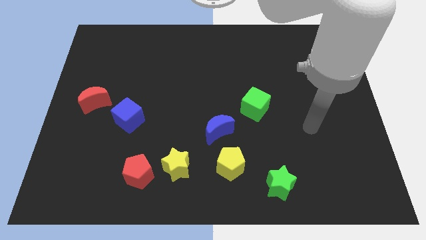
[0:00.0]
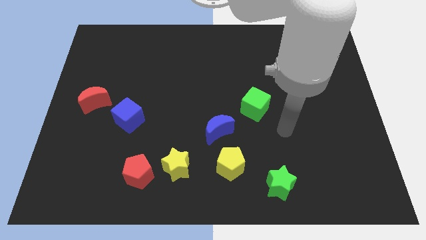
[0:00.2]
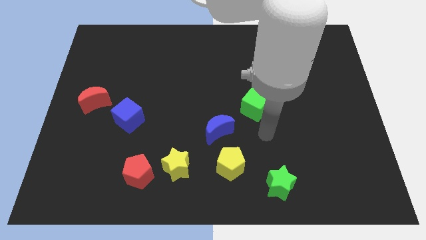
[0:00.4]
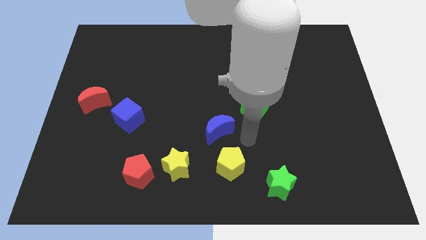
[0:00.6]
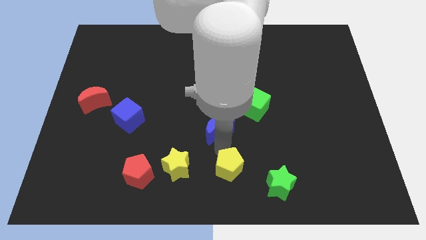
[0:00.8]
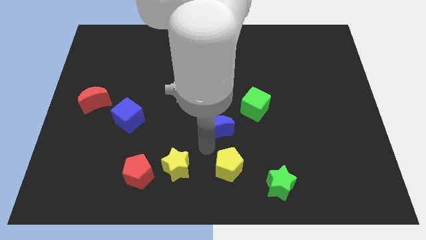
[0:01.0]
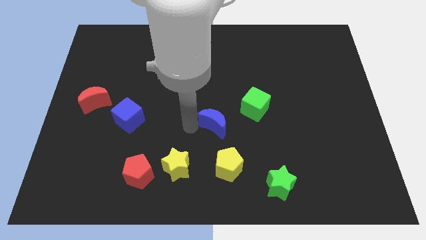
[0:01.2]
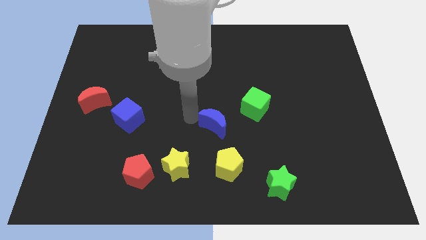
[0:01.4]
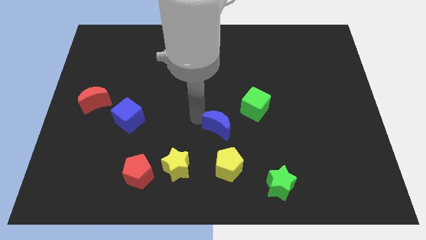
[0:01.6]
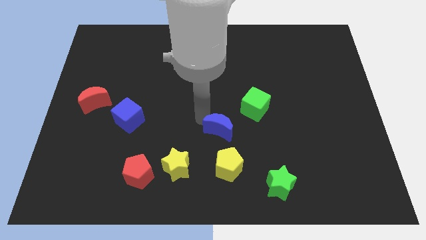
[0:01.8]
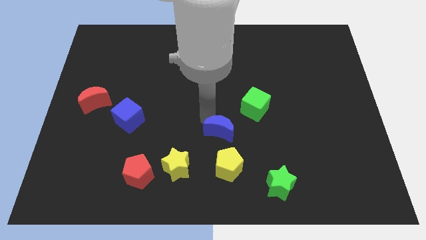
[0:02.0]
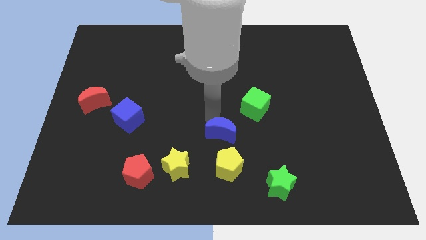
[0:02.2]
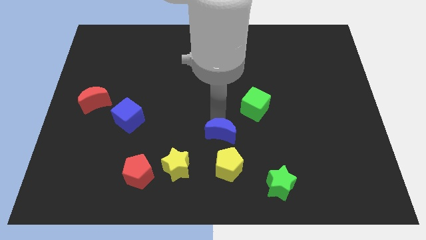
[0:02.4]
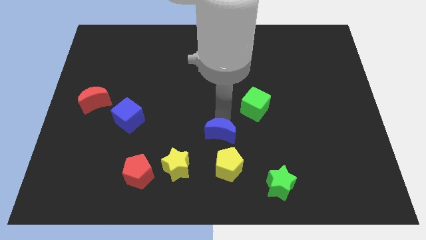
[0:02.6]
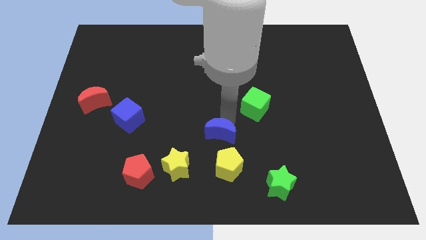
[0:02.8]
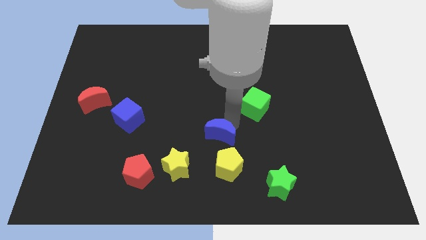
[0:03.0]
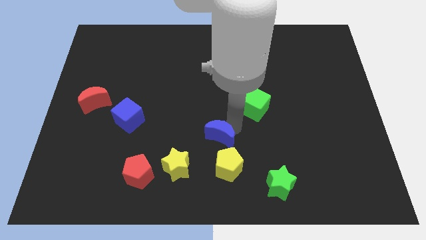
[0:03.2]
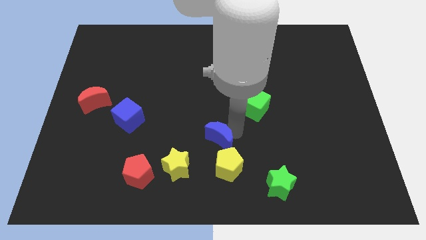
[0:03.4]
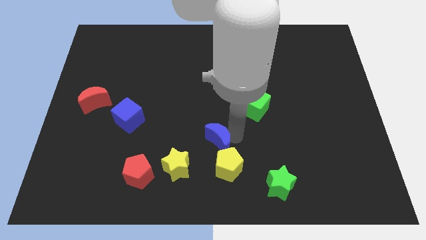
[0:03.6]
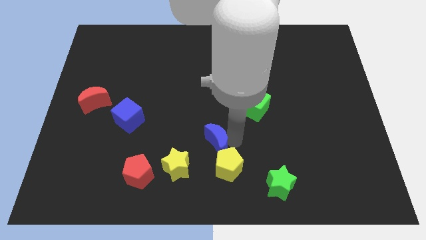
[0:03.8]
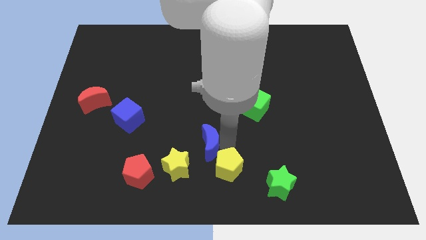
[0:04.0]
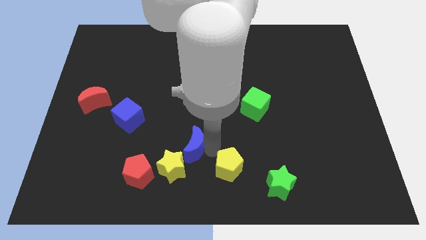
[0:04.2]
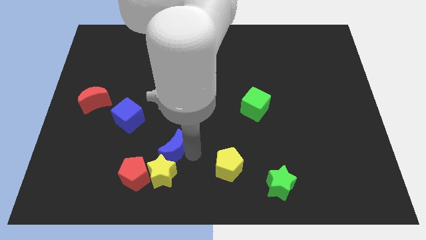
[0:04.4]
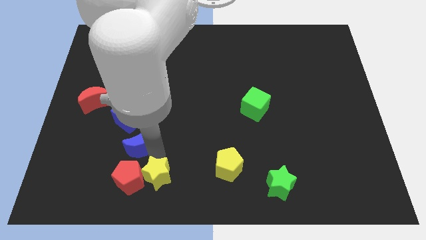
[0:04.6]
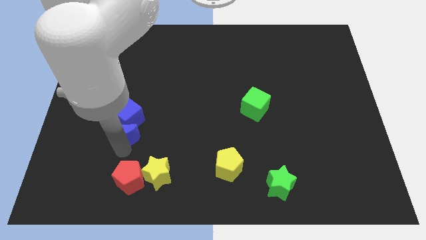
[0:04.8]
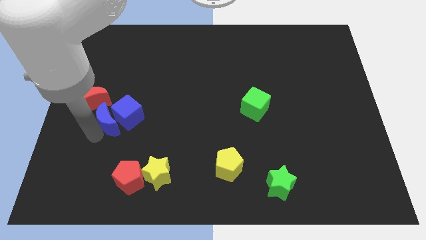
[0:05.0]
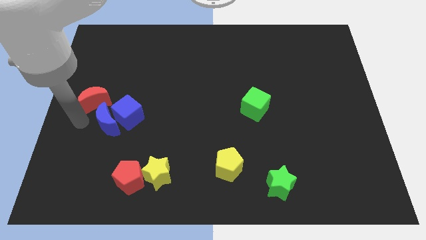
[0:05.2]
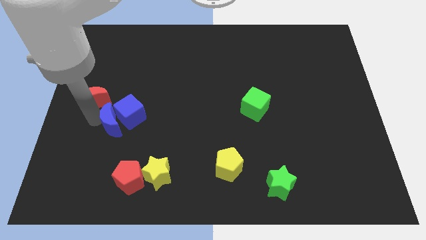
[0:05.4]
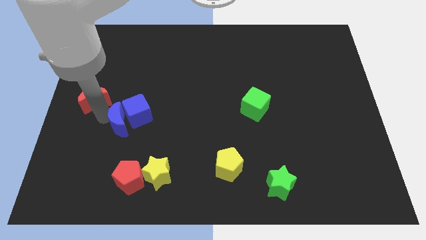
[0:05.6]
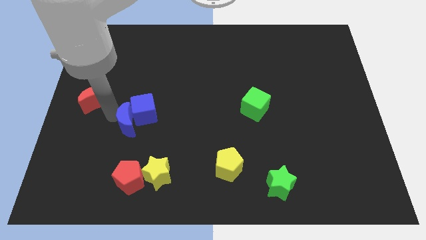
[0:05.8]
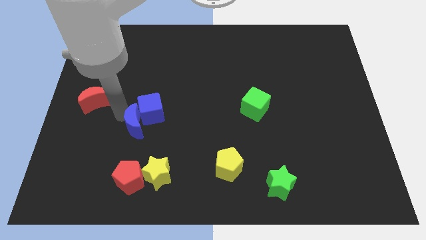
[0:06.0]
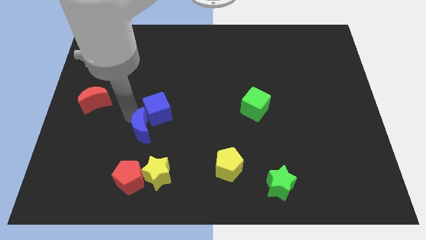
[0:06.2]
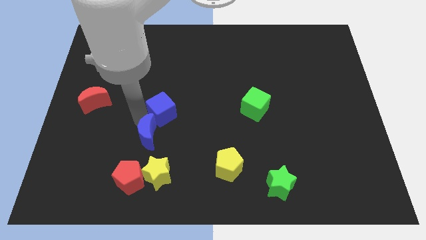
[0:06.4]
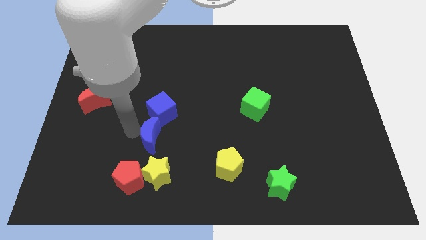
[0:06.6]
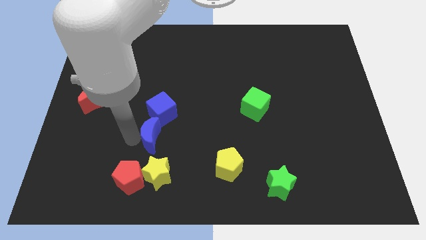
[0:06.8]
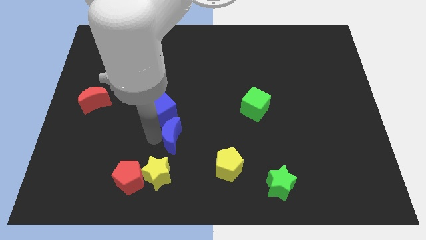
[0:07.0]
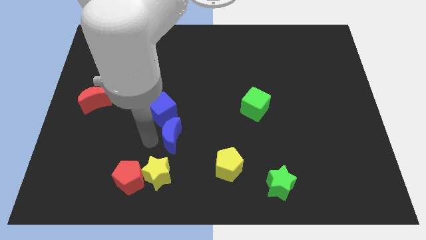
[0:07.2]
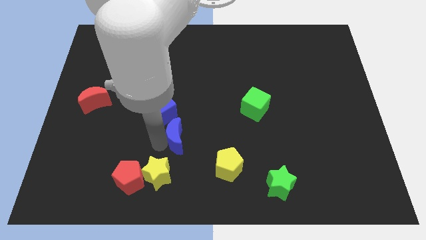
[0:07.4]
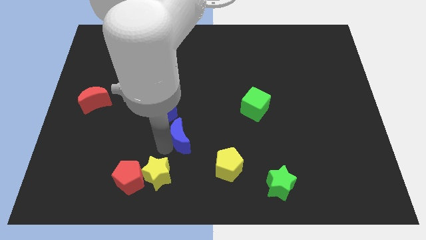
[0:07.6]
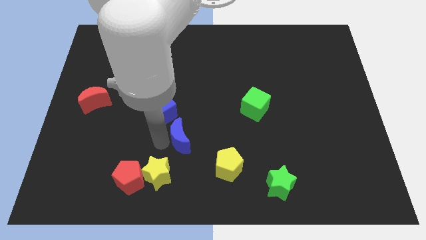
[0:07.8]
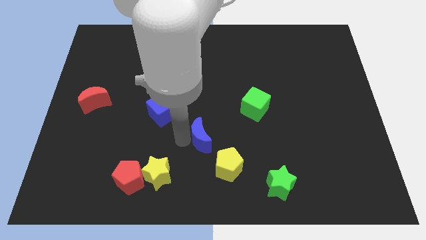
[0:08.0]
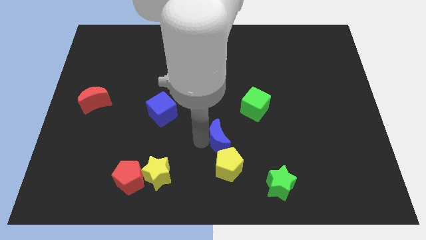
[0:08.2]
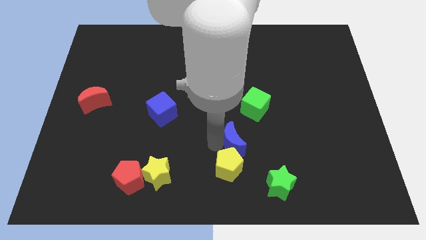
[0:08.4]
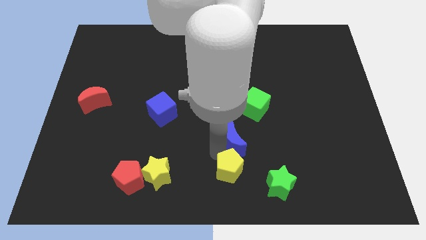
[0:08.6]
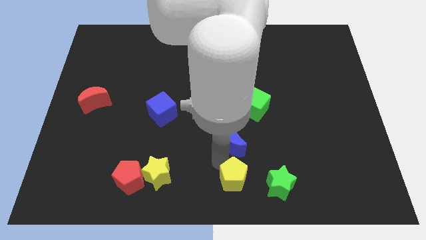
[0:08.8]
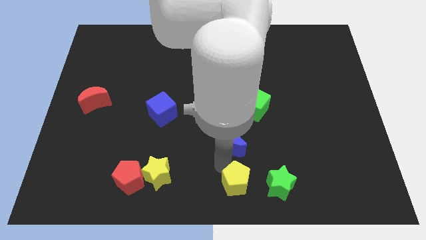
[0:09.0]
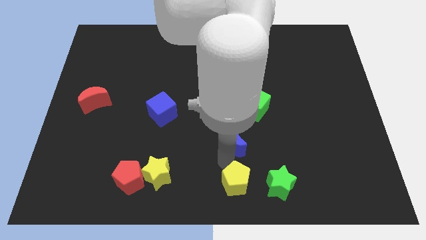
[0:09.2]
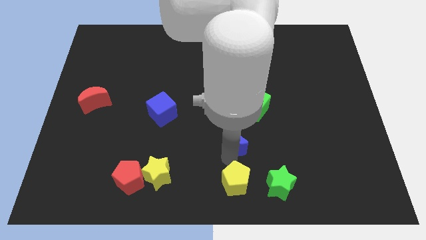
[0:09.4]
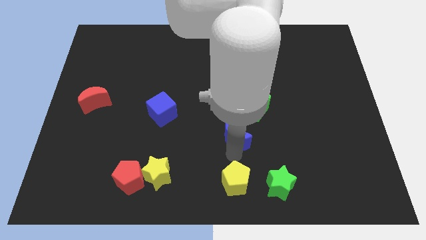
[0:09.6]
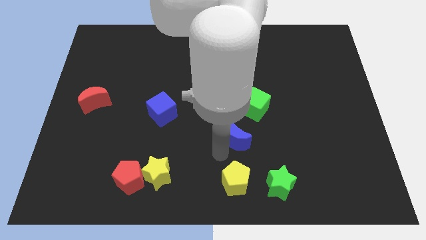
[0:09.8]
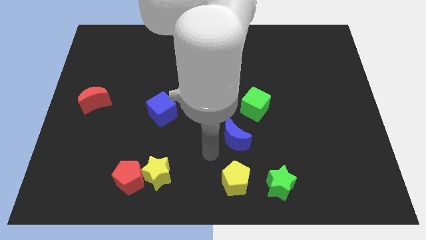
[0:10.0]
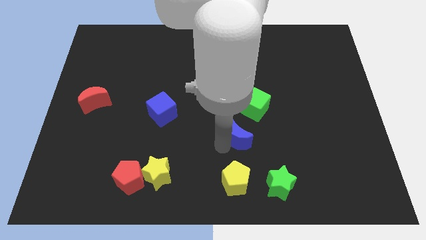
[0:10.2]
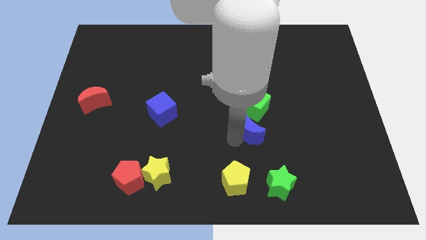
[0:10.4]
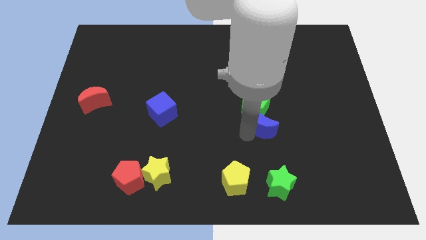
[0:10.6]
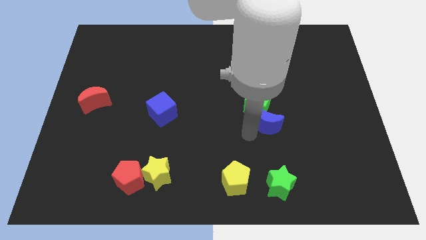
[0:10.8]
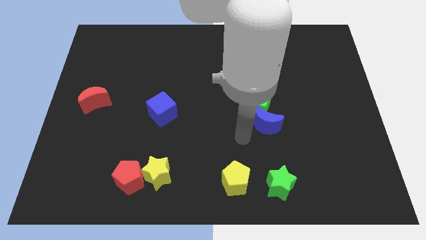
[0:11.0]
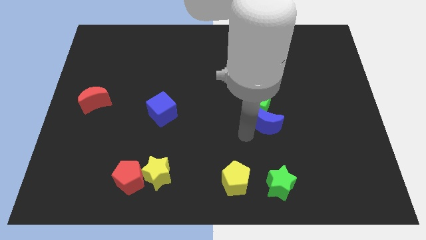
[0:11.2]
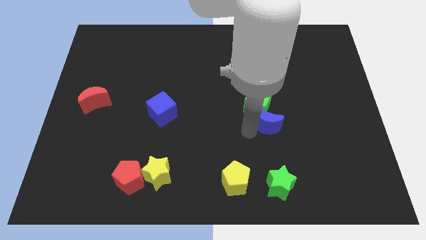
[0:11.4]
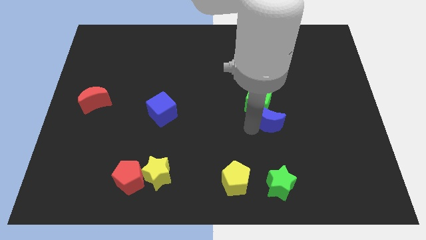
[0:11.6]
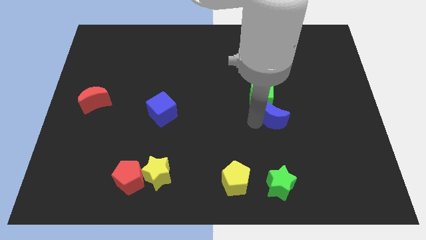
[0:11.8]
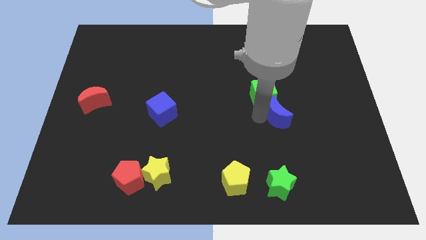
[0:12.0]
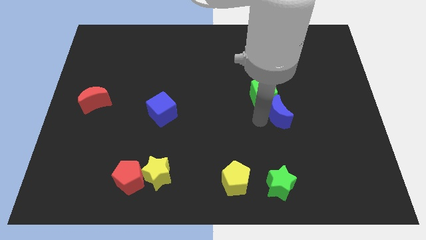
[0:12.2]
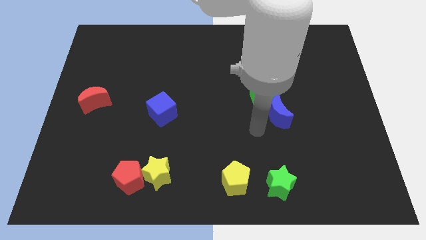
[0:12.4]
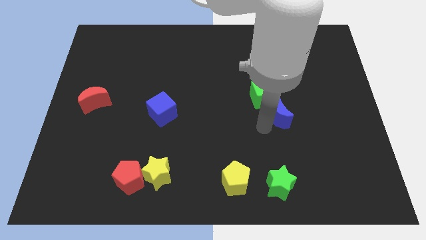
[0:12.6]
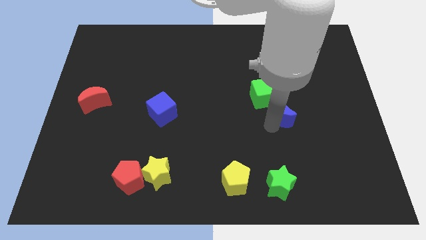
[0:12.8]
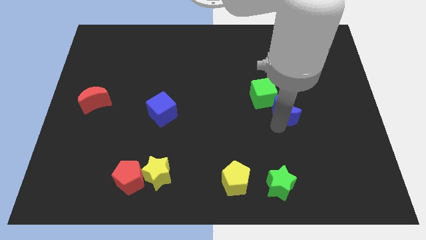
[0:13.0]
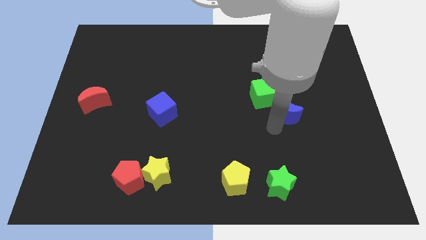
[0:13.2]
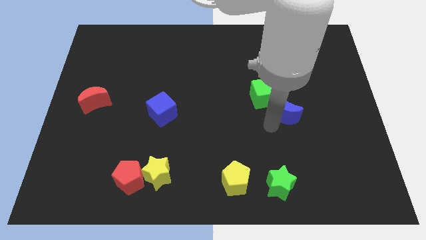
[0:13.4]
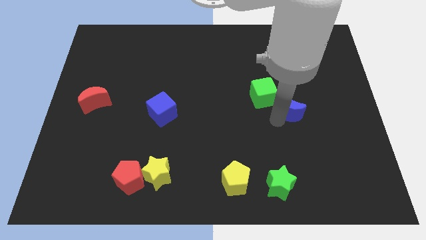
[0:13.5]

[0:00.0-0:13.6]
move the blue moon to the right side of the green cube
